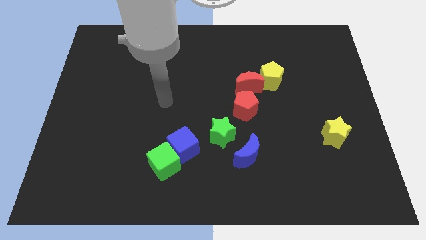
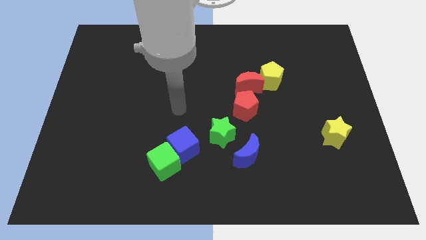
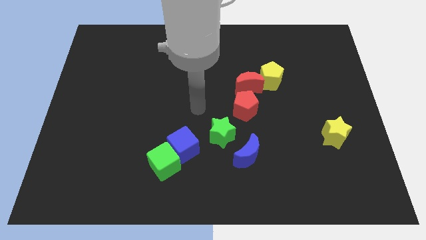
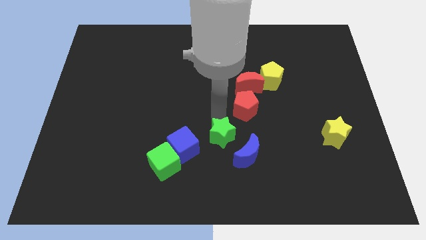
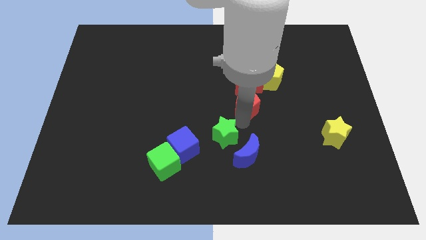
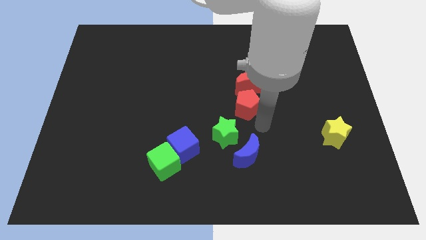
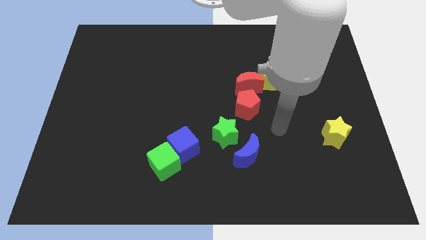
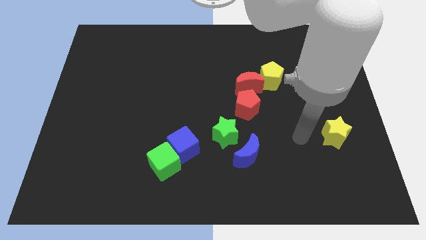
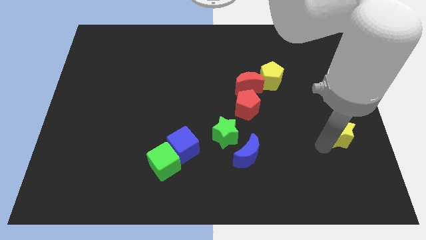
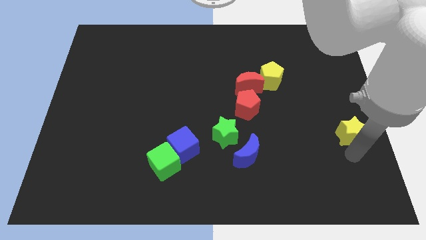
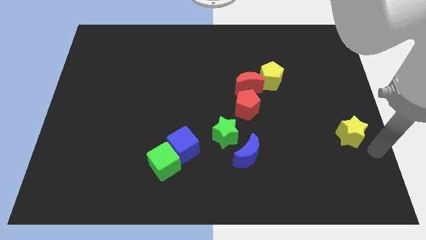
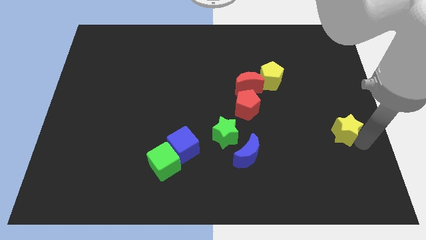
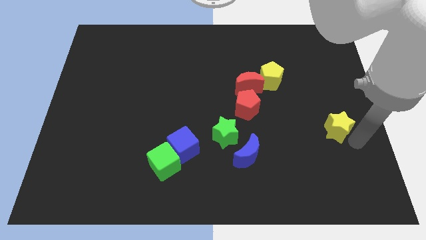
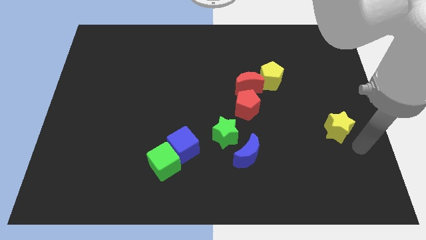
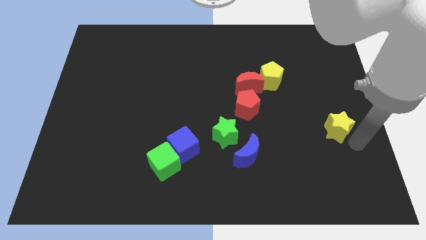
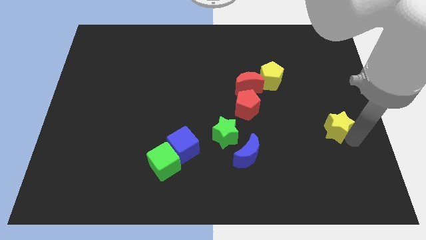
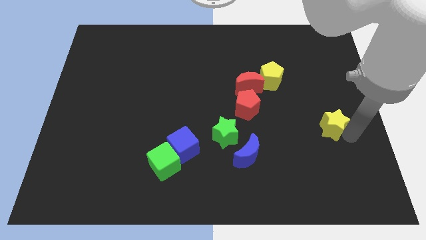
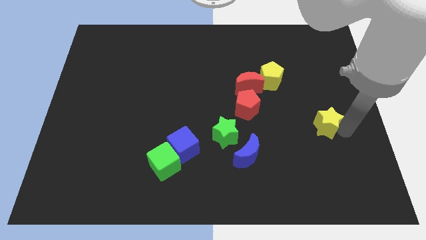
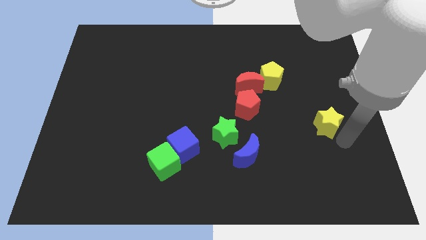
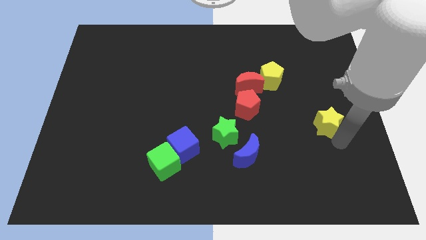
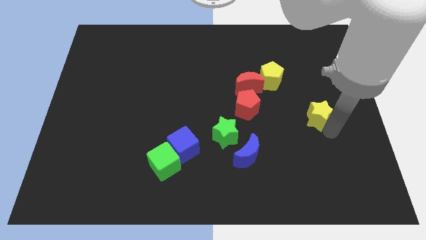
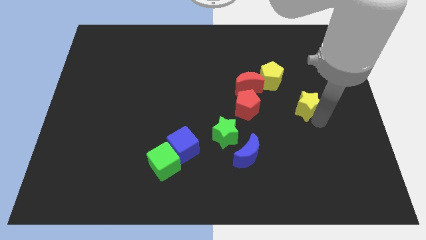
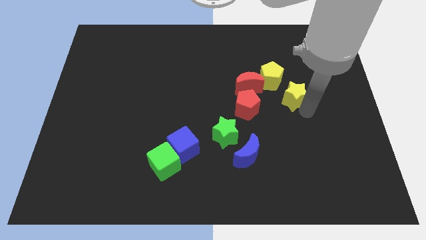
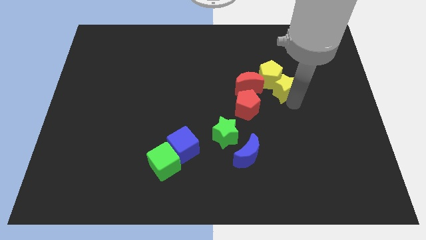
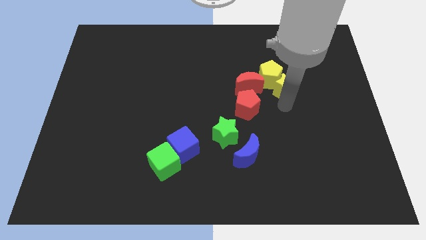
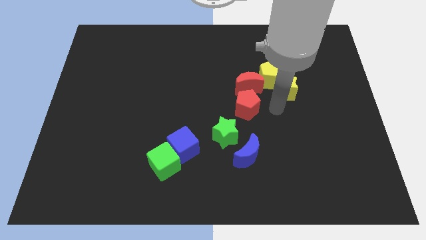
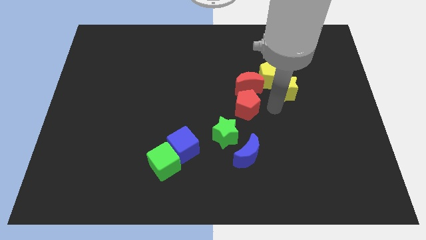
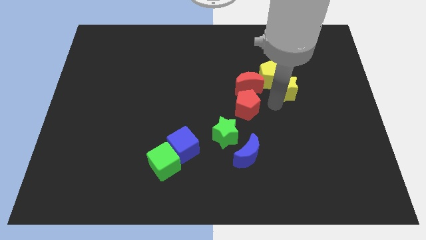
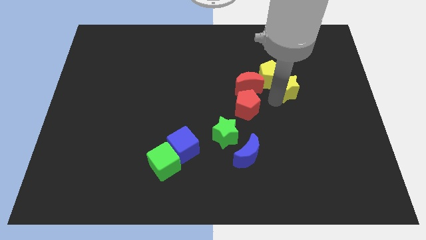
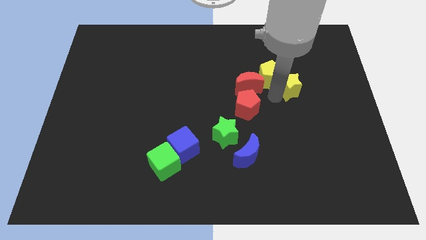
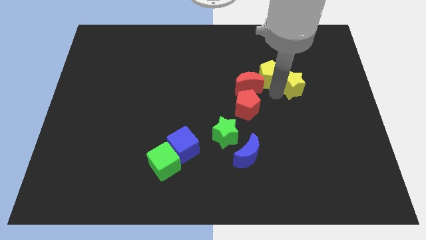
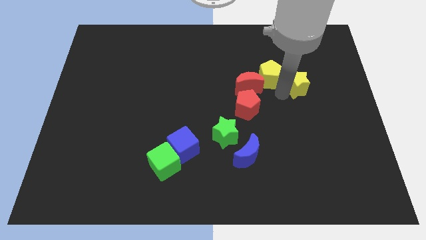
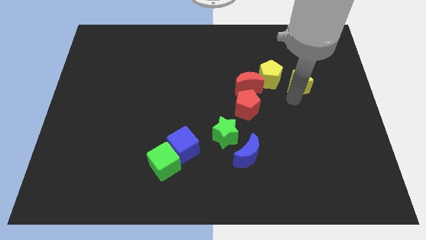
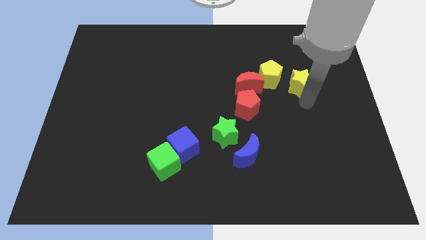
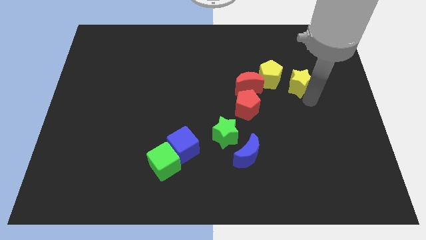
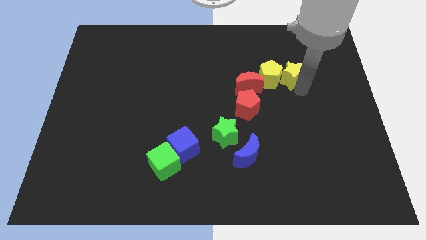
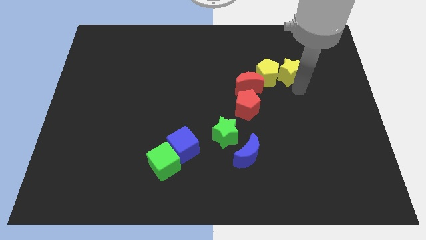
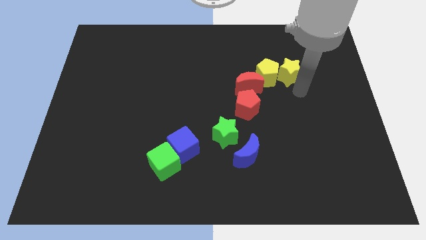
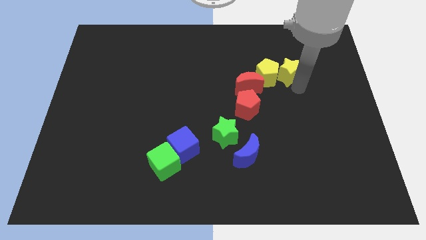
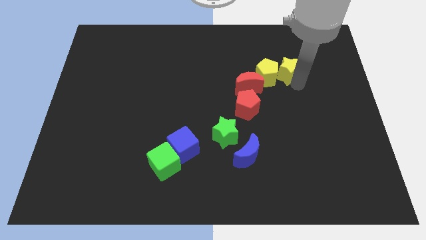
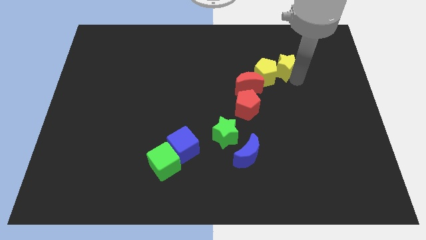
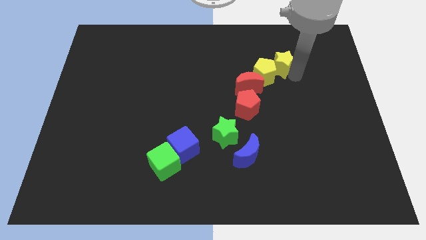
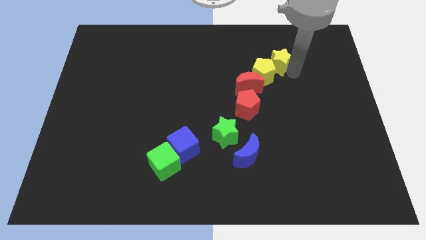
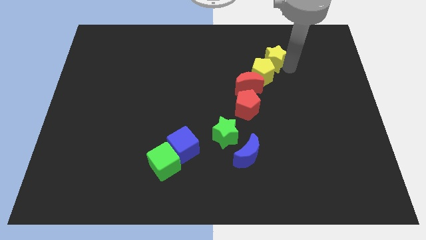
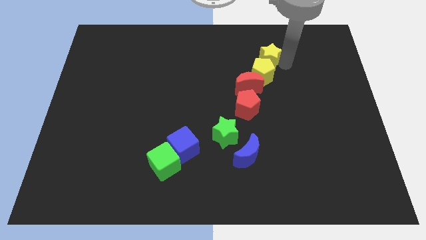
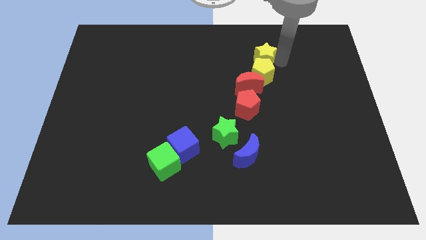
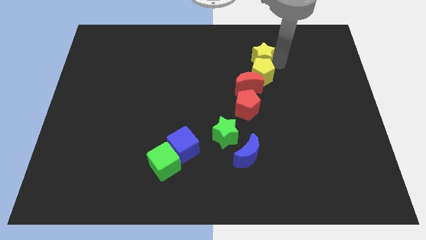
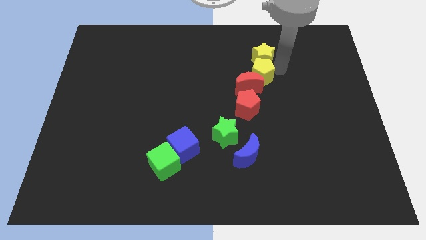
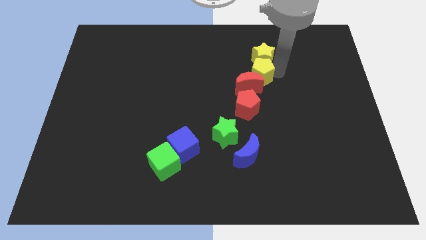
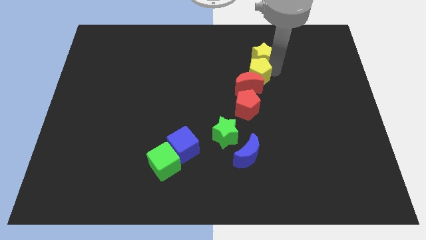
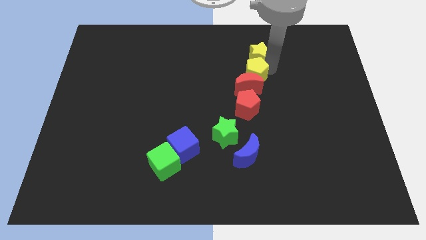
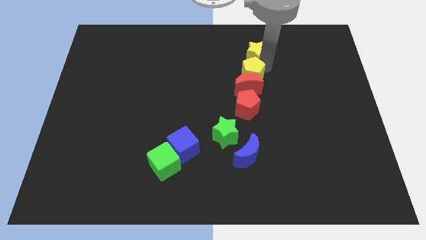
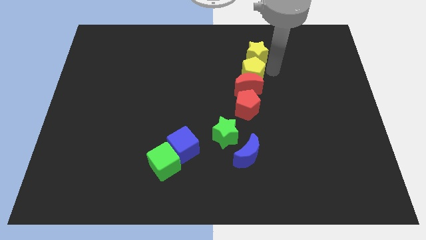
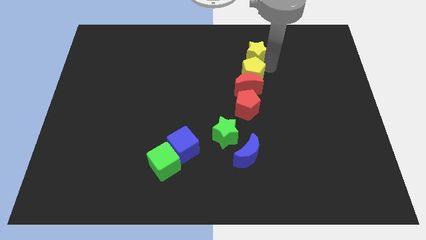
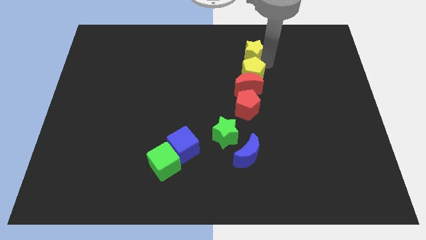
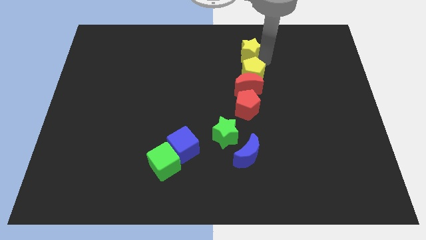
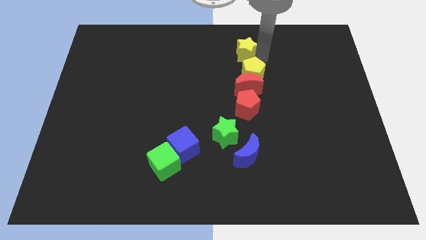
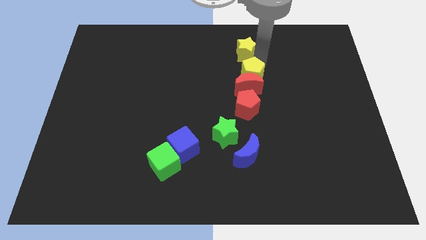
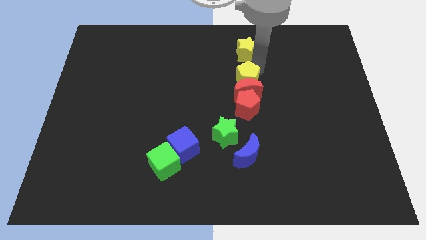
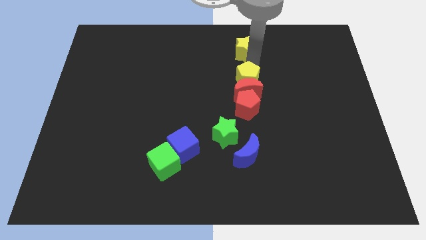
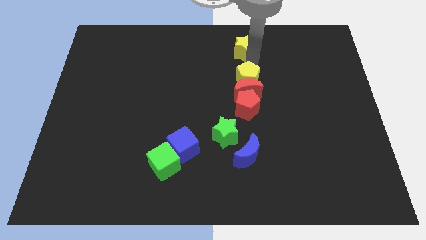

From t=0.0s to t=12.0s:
put the yellow star to the top side
